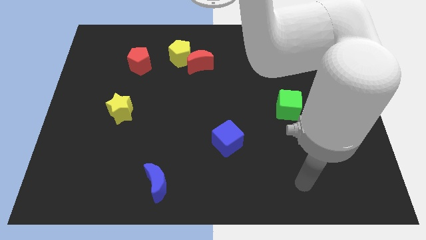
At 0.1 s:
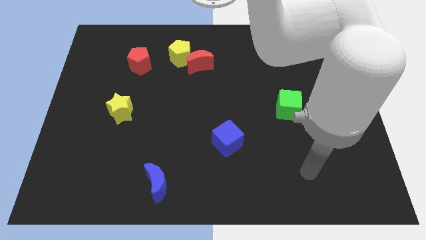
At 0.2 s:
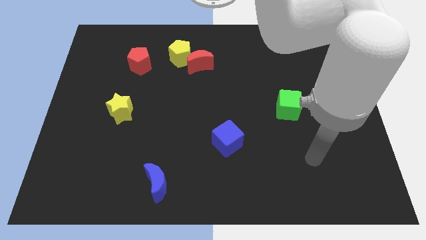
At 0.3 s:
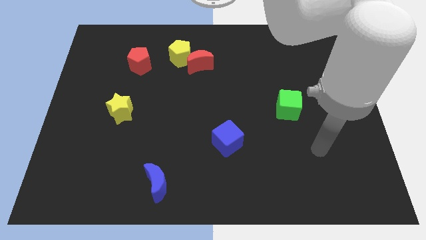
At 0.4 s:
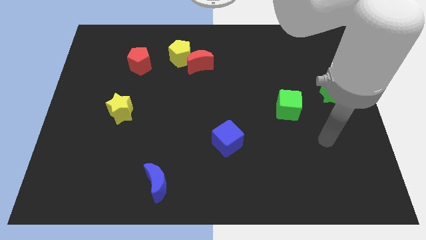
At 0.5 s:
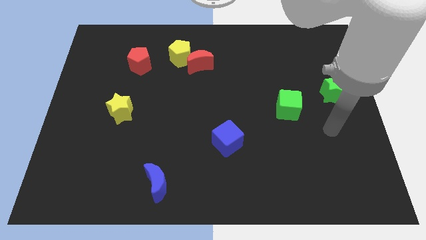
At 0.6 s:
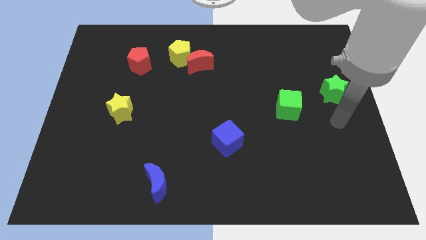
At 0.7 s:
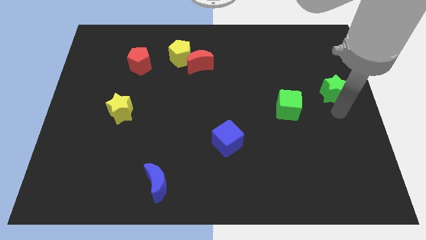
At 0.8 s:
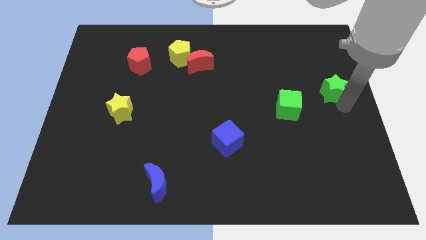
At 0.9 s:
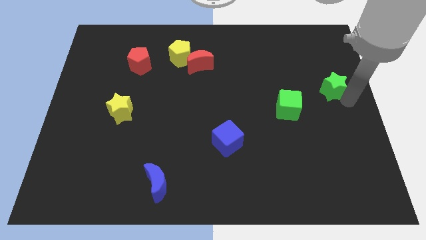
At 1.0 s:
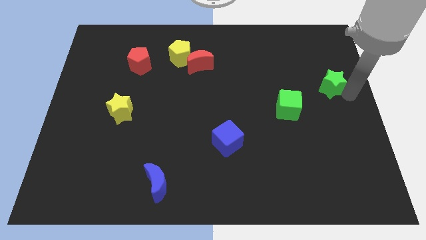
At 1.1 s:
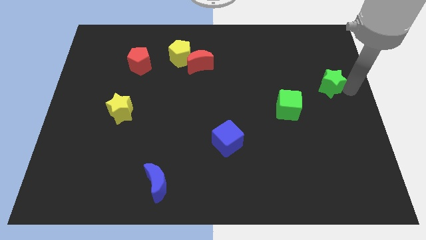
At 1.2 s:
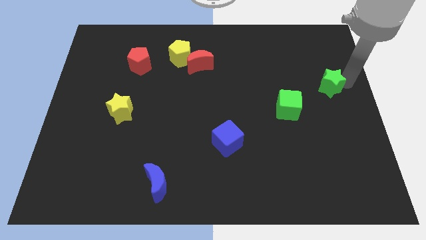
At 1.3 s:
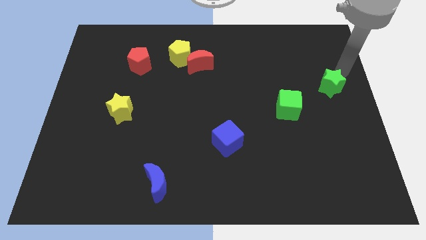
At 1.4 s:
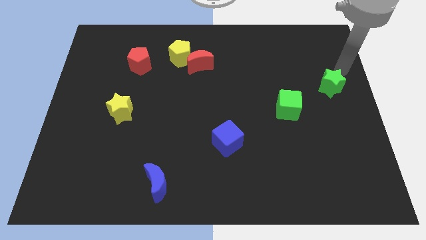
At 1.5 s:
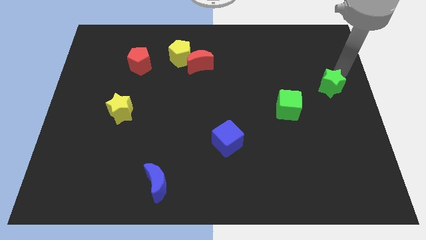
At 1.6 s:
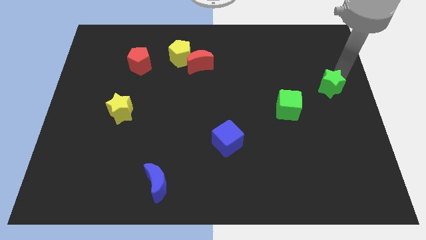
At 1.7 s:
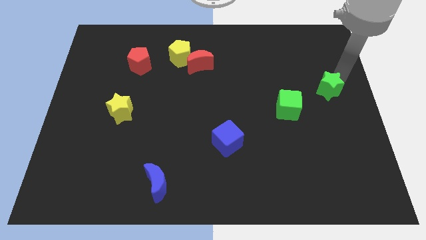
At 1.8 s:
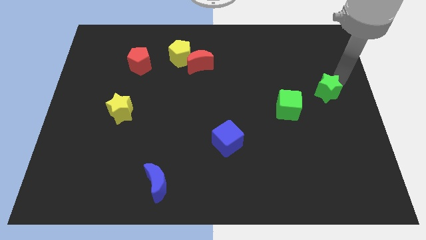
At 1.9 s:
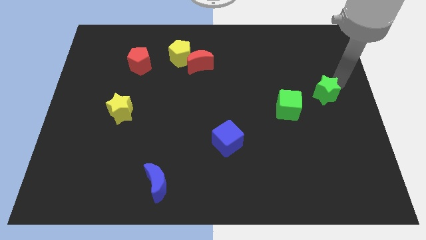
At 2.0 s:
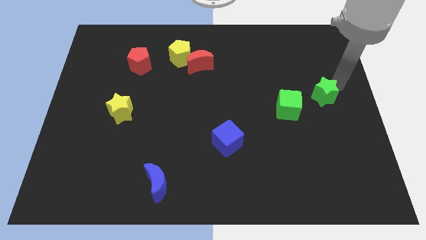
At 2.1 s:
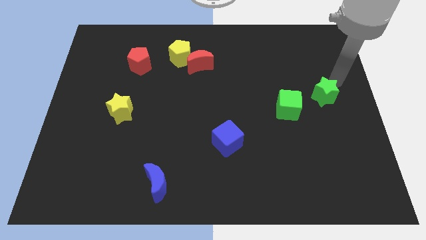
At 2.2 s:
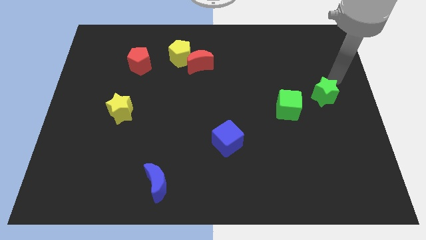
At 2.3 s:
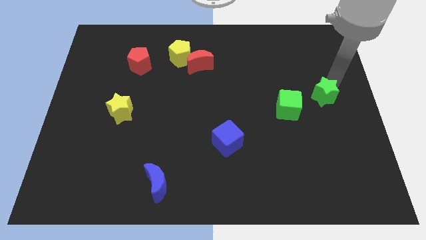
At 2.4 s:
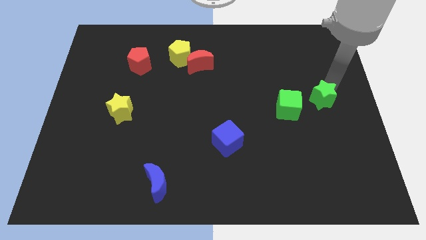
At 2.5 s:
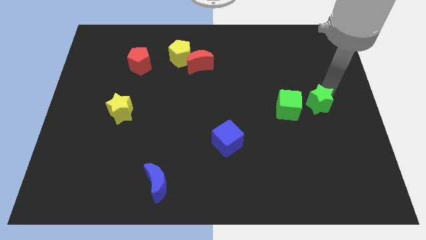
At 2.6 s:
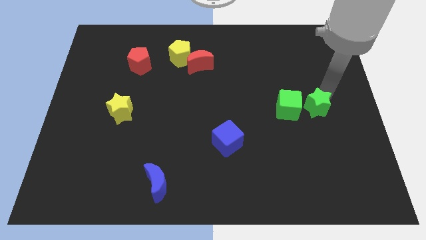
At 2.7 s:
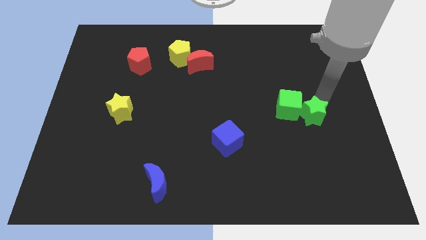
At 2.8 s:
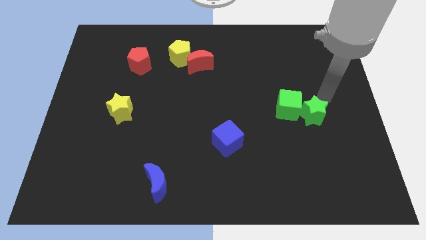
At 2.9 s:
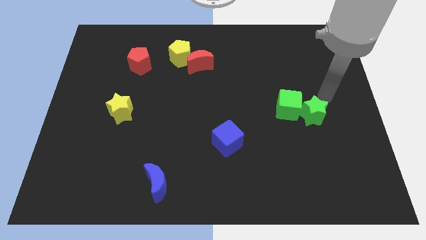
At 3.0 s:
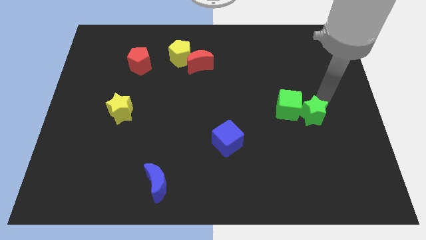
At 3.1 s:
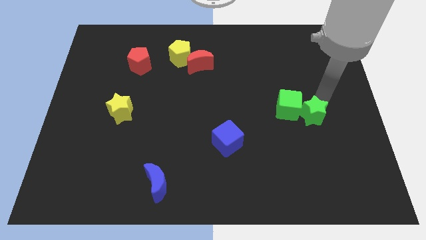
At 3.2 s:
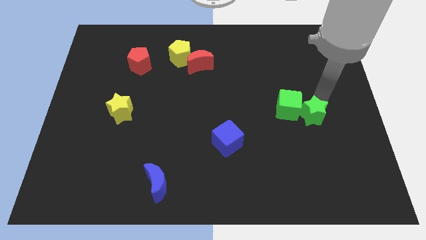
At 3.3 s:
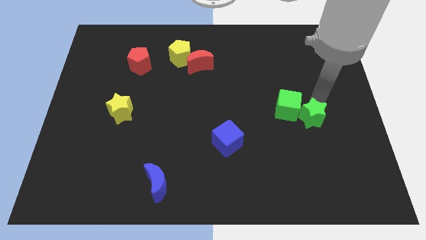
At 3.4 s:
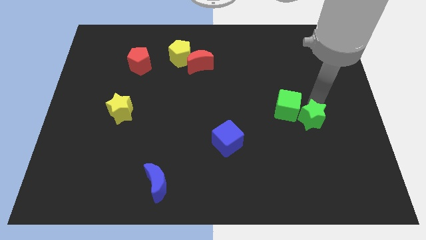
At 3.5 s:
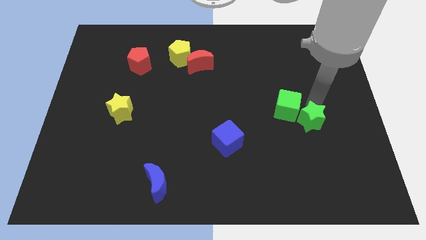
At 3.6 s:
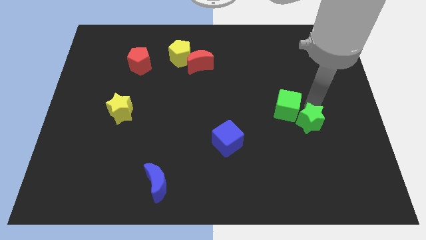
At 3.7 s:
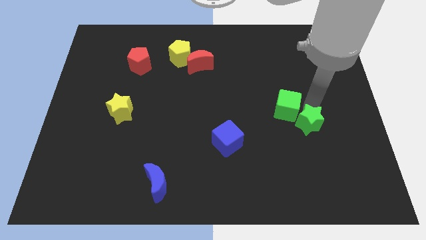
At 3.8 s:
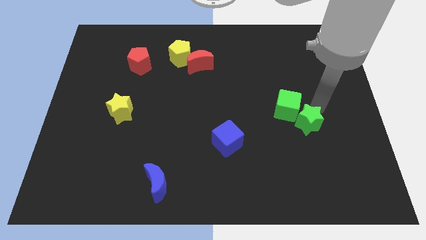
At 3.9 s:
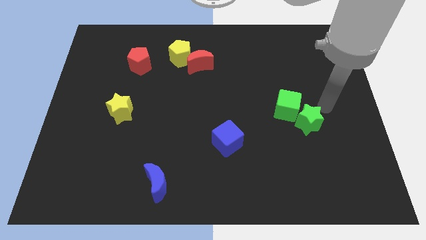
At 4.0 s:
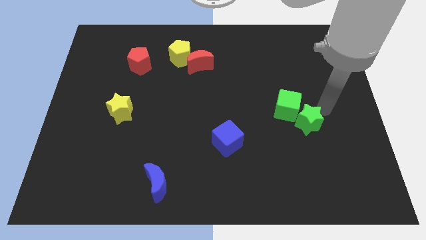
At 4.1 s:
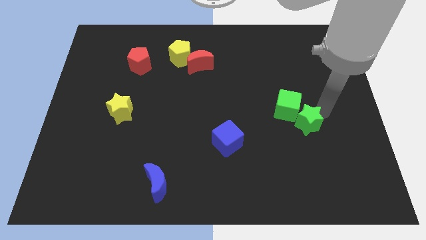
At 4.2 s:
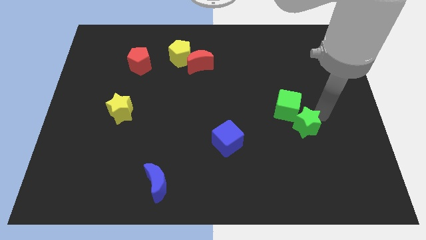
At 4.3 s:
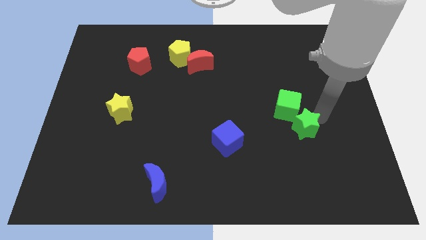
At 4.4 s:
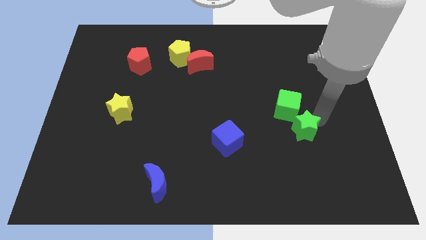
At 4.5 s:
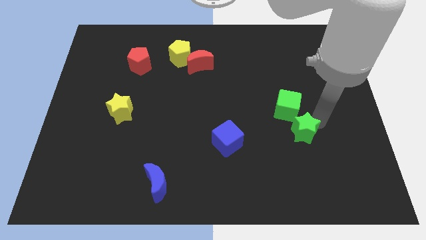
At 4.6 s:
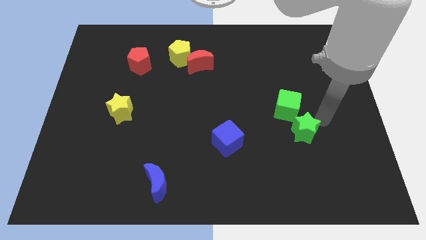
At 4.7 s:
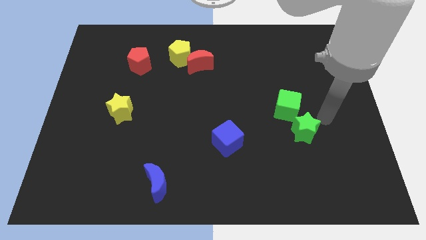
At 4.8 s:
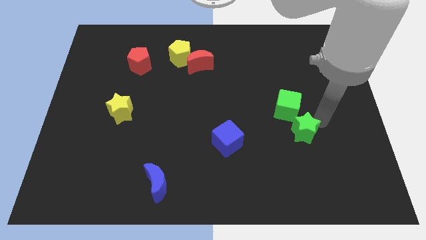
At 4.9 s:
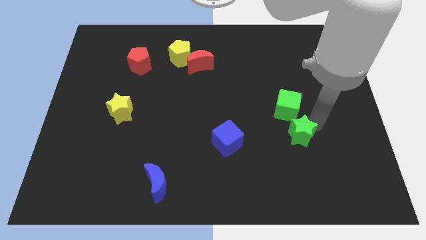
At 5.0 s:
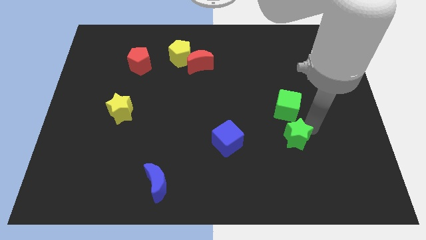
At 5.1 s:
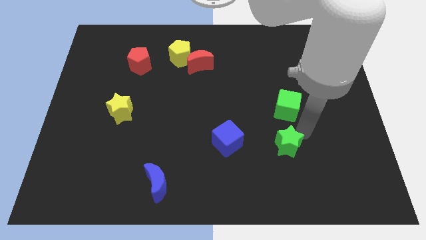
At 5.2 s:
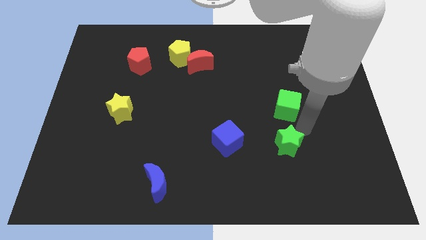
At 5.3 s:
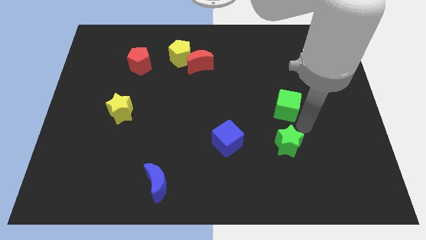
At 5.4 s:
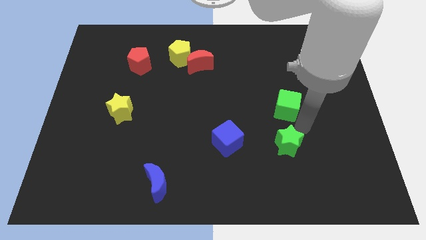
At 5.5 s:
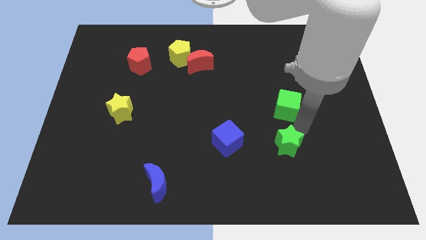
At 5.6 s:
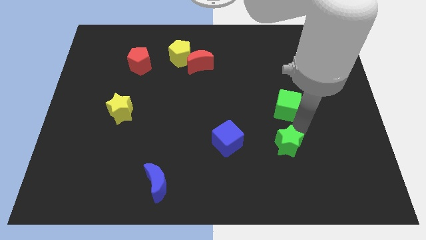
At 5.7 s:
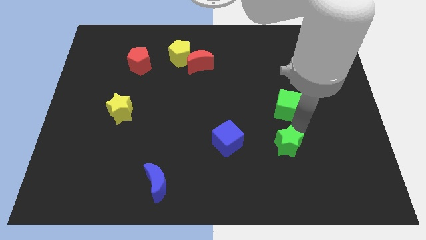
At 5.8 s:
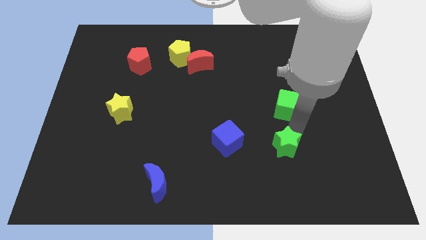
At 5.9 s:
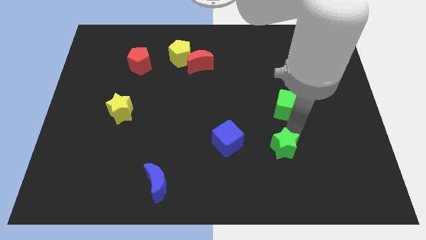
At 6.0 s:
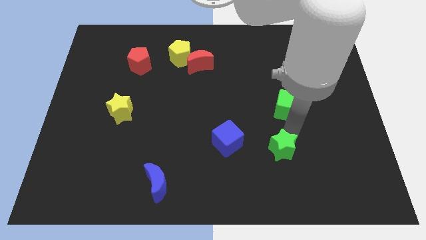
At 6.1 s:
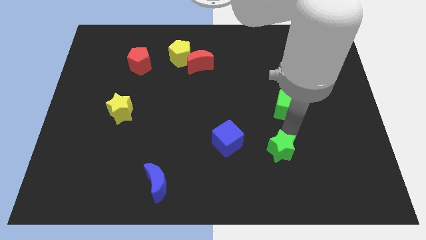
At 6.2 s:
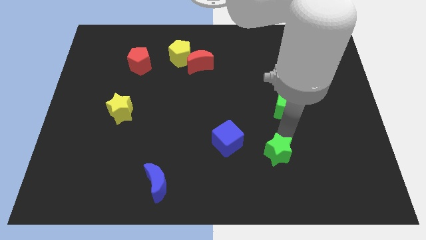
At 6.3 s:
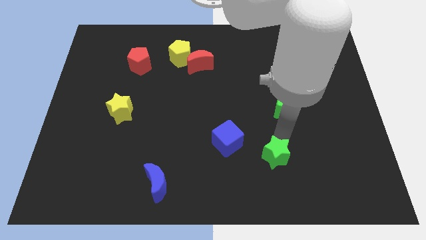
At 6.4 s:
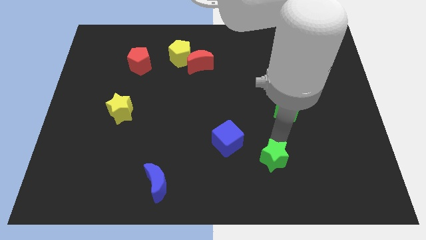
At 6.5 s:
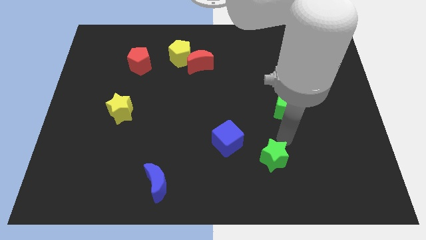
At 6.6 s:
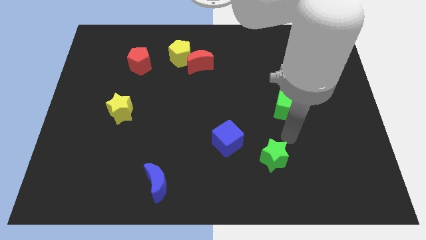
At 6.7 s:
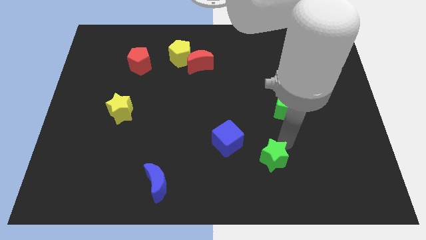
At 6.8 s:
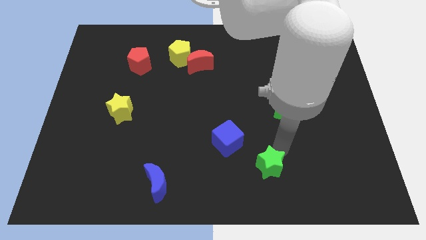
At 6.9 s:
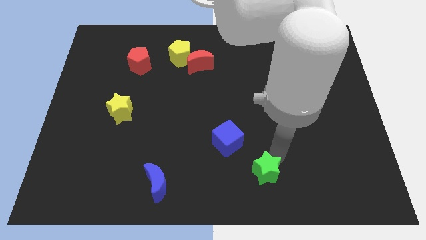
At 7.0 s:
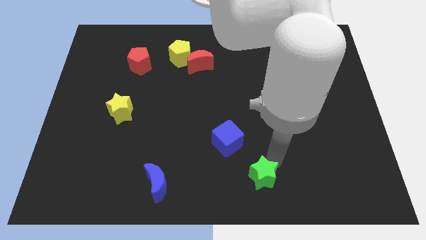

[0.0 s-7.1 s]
move the green star to the bottom side
